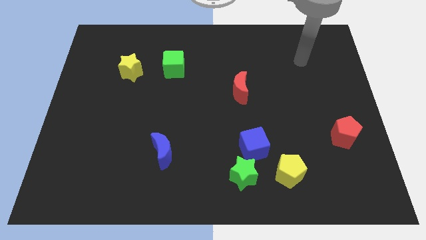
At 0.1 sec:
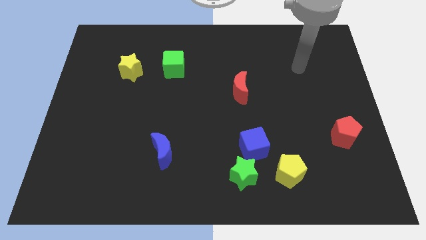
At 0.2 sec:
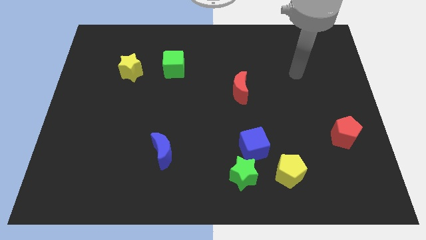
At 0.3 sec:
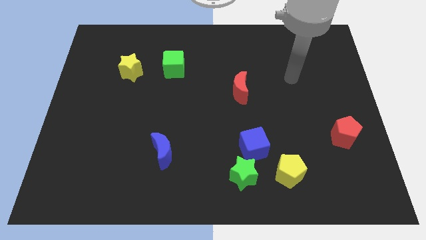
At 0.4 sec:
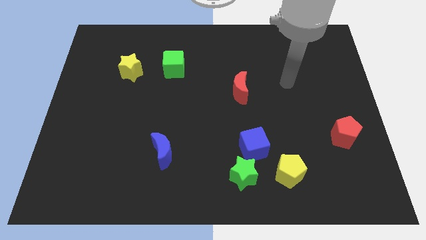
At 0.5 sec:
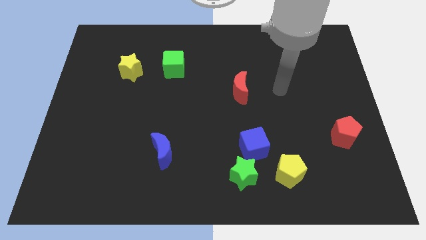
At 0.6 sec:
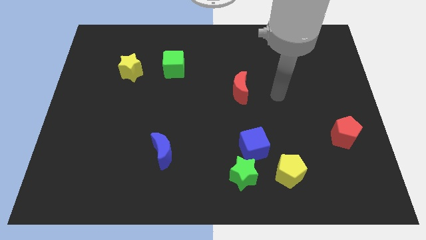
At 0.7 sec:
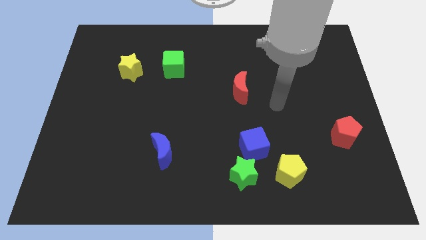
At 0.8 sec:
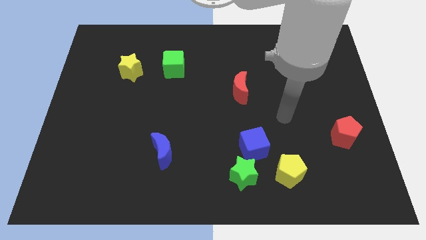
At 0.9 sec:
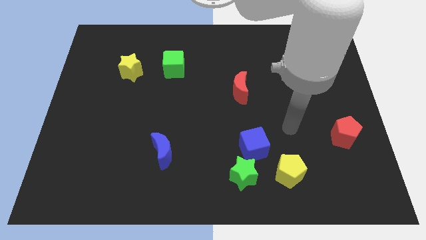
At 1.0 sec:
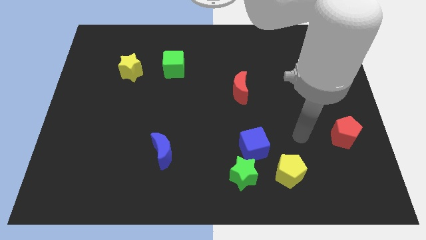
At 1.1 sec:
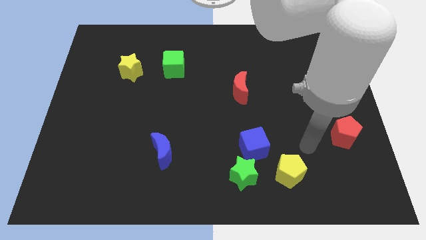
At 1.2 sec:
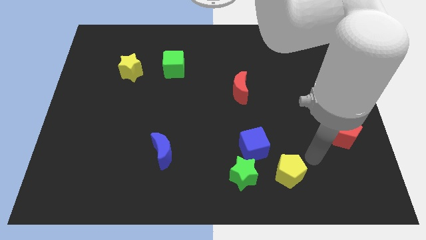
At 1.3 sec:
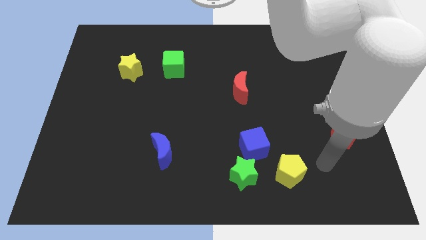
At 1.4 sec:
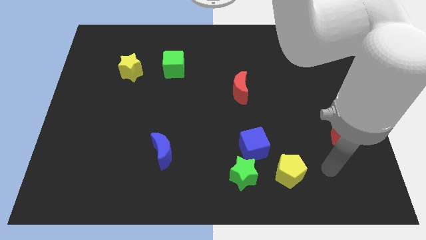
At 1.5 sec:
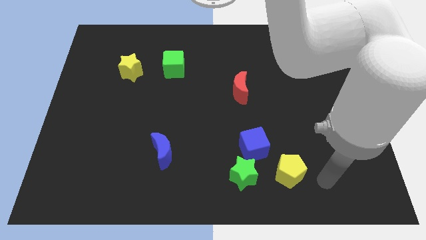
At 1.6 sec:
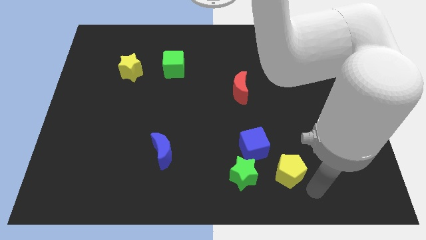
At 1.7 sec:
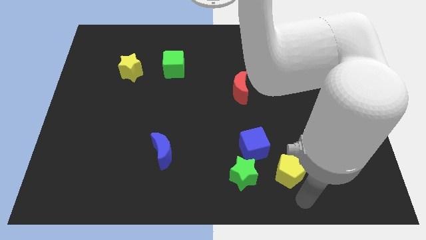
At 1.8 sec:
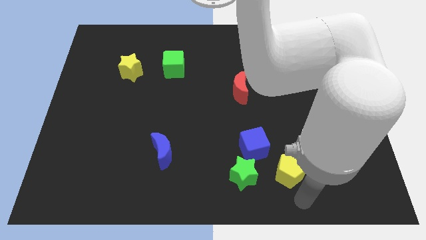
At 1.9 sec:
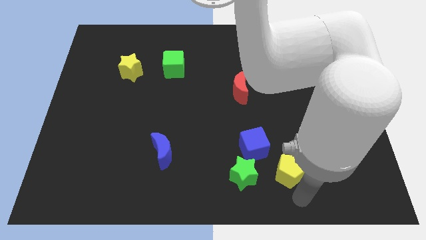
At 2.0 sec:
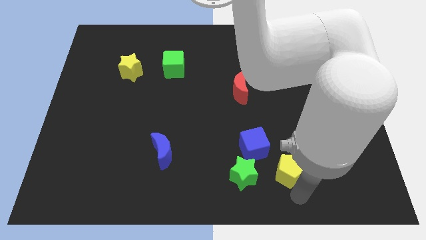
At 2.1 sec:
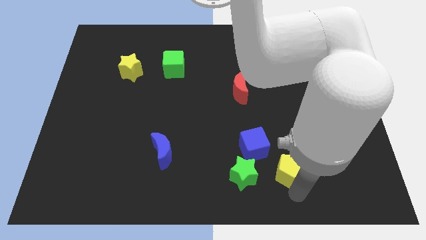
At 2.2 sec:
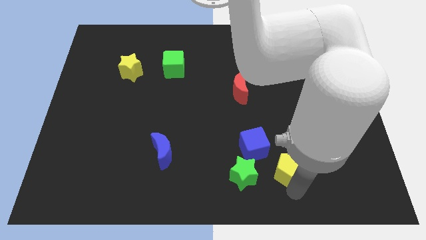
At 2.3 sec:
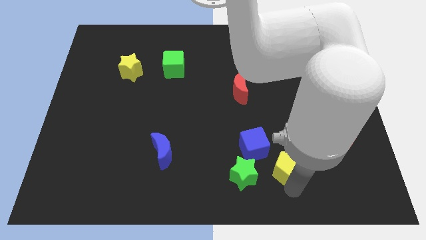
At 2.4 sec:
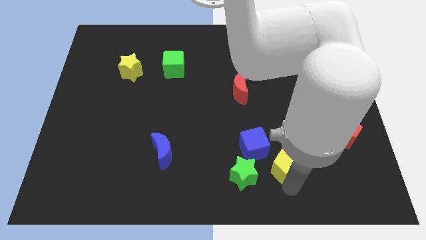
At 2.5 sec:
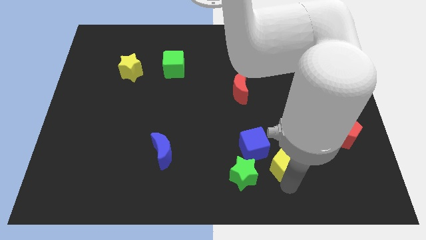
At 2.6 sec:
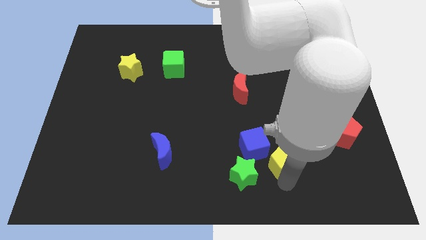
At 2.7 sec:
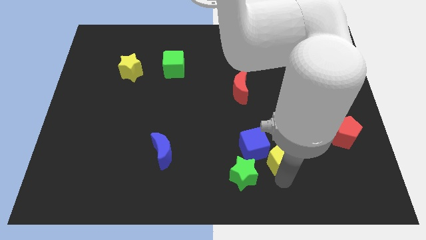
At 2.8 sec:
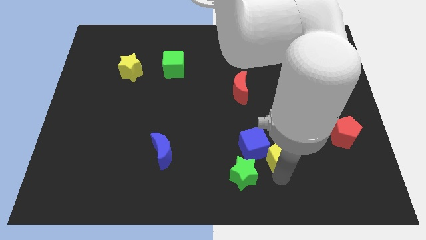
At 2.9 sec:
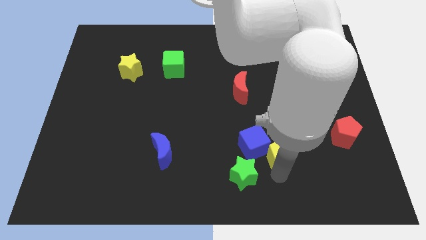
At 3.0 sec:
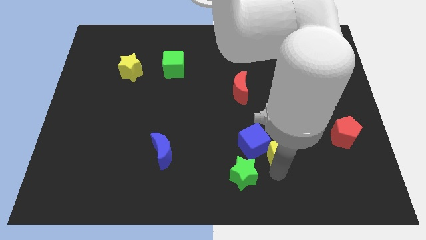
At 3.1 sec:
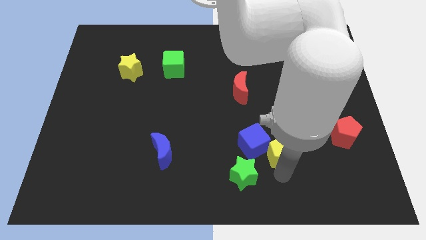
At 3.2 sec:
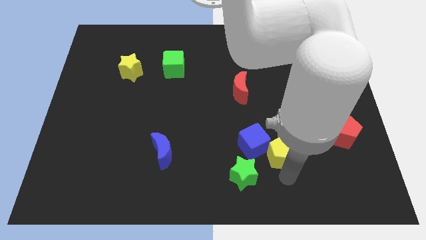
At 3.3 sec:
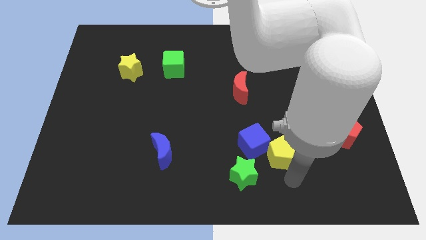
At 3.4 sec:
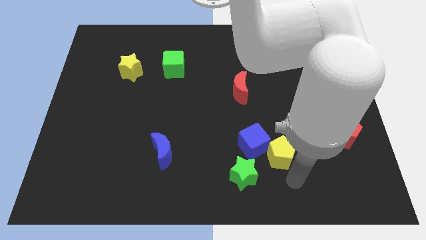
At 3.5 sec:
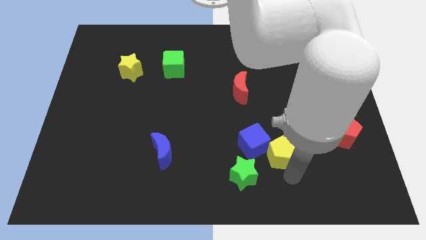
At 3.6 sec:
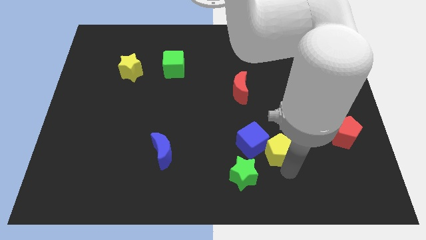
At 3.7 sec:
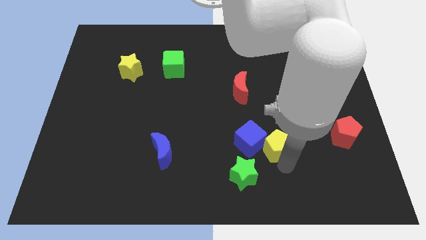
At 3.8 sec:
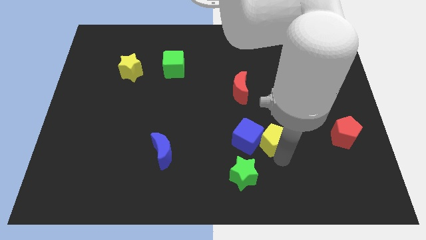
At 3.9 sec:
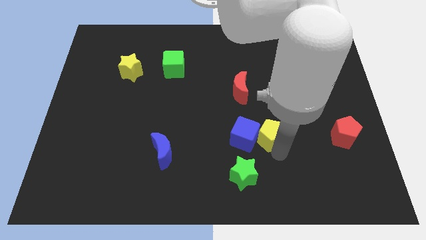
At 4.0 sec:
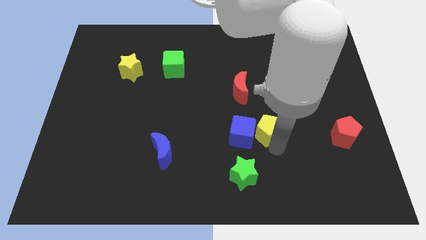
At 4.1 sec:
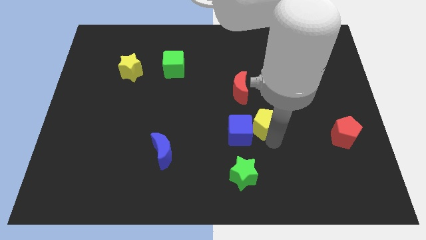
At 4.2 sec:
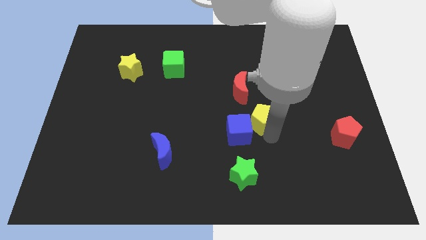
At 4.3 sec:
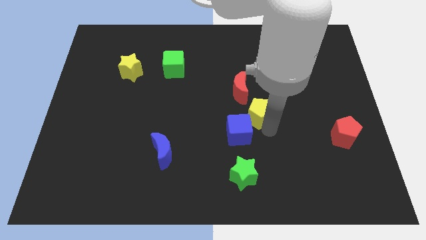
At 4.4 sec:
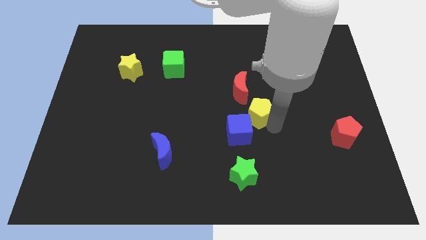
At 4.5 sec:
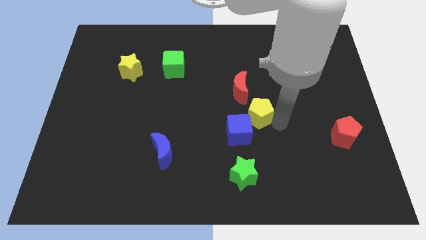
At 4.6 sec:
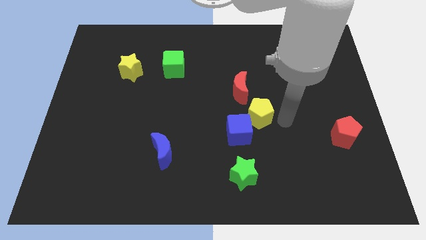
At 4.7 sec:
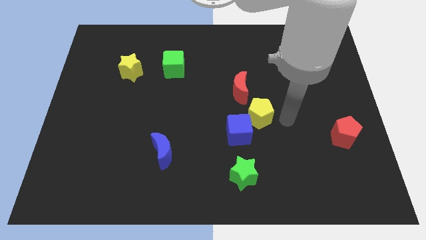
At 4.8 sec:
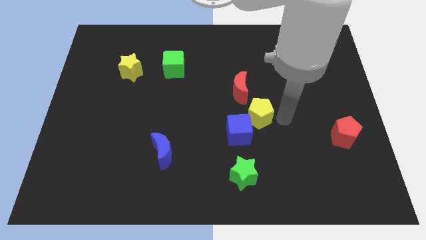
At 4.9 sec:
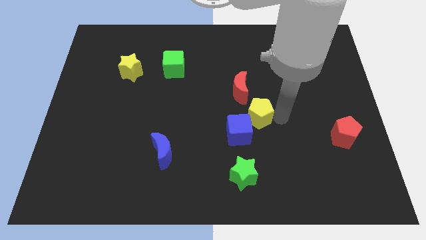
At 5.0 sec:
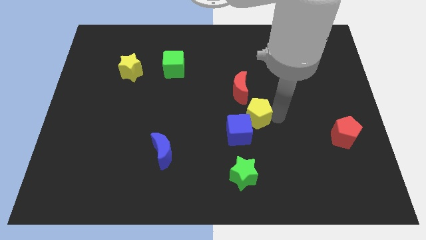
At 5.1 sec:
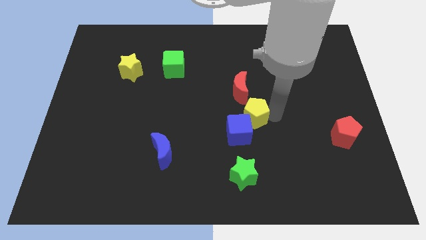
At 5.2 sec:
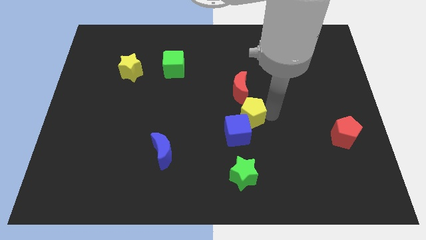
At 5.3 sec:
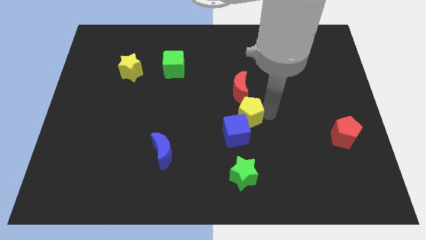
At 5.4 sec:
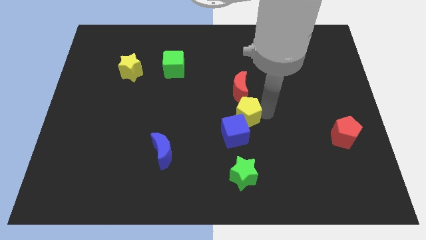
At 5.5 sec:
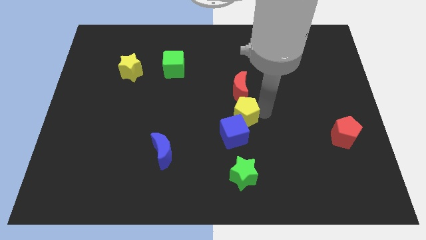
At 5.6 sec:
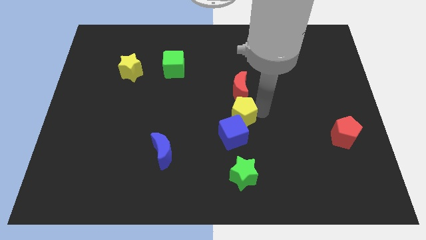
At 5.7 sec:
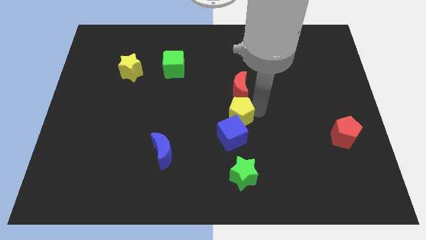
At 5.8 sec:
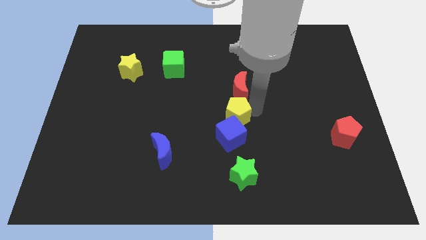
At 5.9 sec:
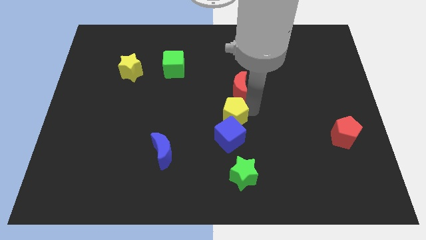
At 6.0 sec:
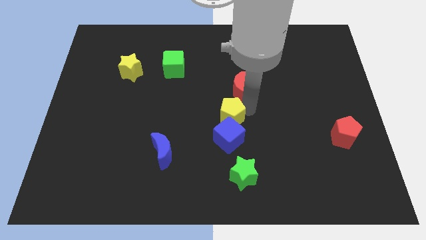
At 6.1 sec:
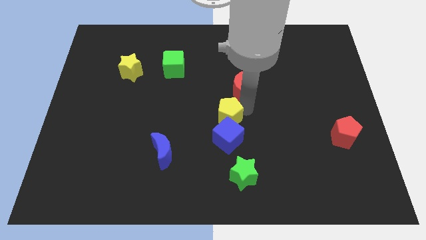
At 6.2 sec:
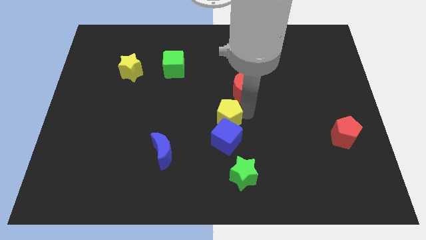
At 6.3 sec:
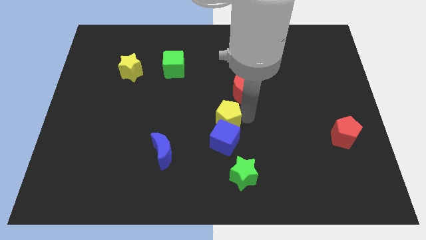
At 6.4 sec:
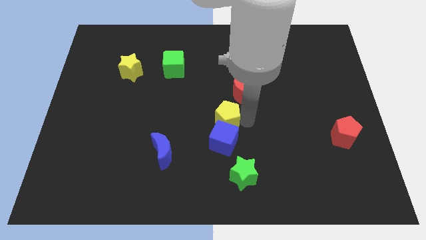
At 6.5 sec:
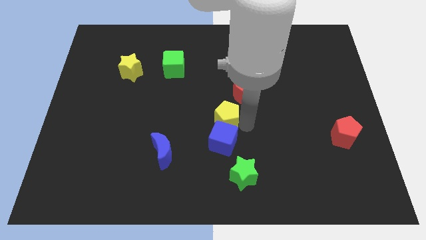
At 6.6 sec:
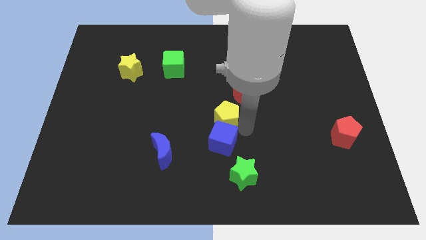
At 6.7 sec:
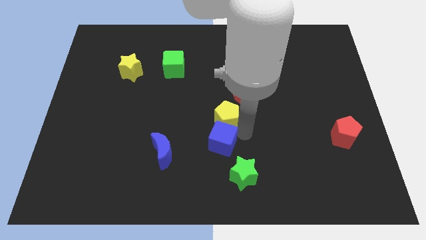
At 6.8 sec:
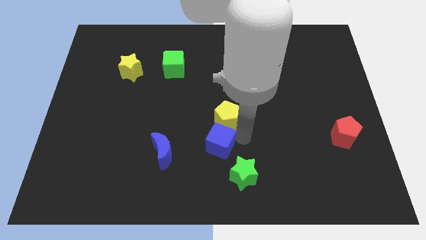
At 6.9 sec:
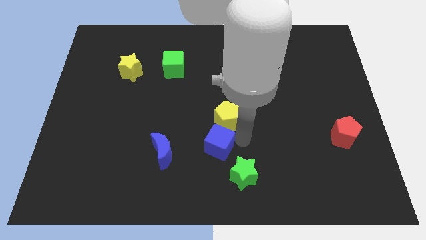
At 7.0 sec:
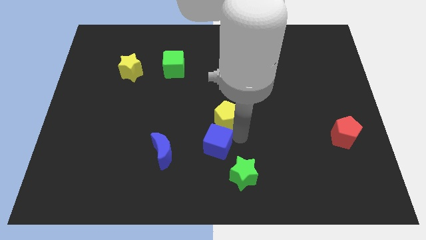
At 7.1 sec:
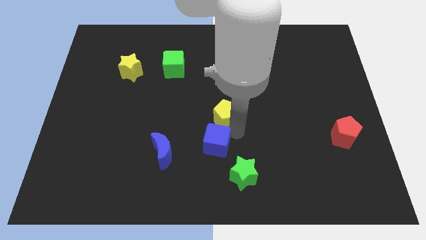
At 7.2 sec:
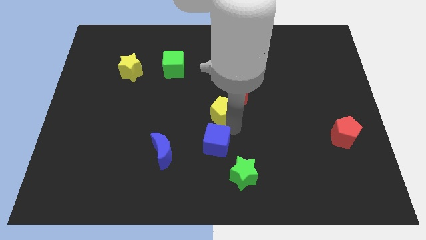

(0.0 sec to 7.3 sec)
move the yellow pentagon up and then to the left

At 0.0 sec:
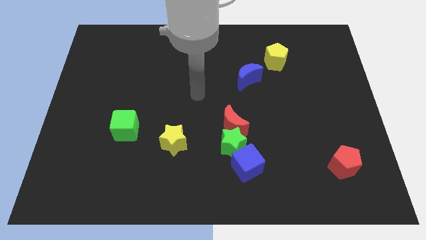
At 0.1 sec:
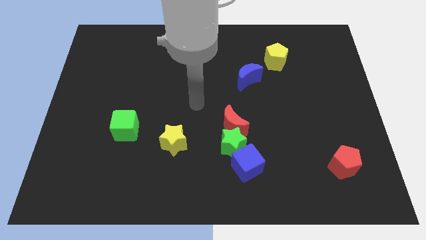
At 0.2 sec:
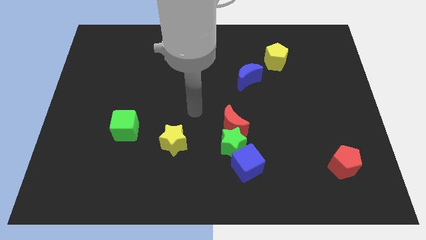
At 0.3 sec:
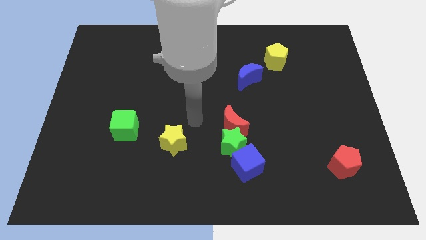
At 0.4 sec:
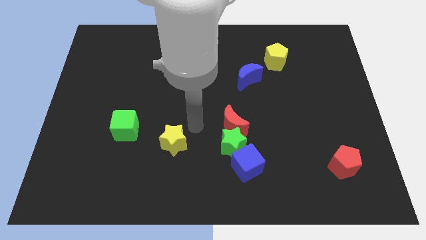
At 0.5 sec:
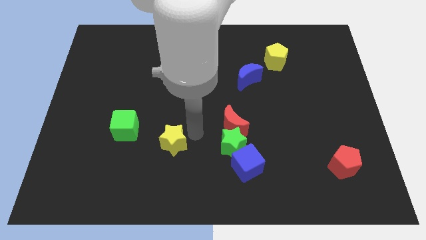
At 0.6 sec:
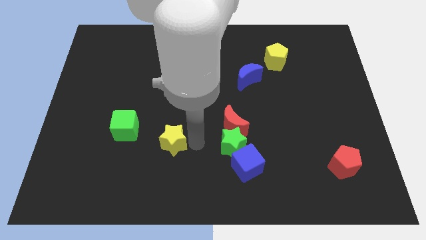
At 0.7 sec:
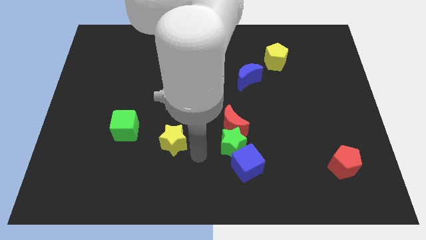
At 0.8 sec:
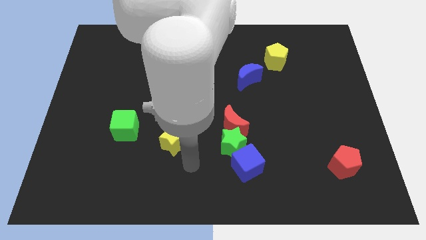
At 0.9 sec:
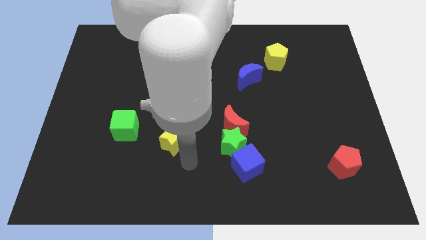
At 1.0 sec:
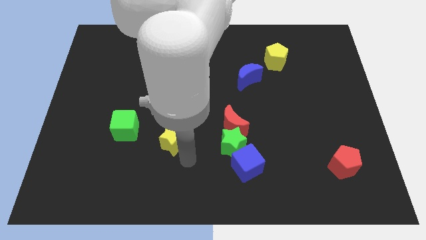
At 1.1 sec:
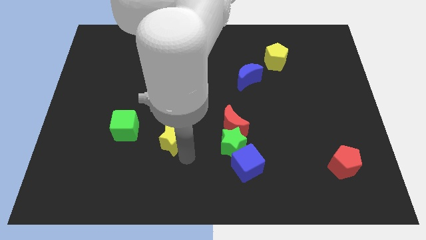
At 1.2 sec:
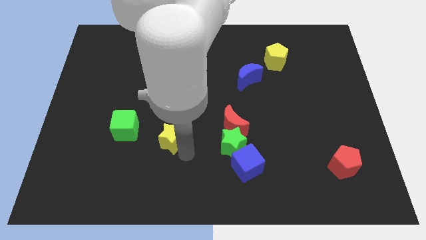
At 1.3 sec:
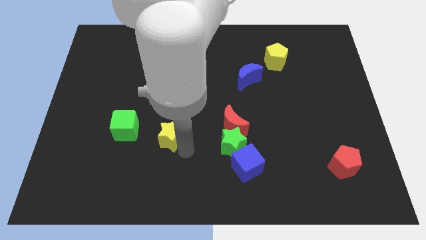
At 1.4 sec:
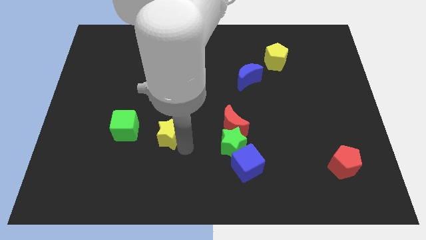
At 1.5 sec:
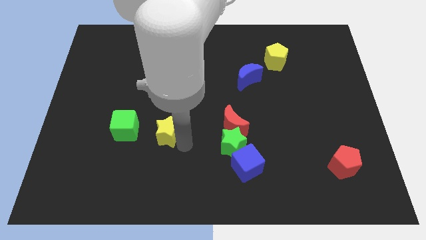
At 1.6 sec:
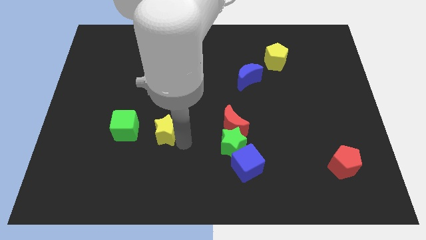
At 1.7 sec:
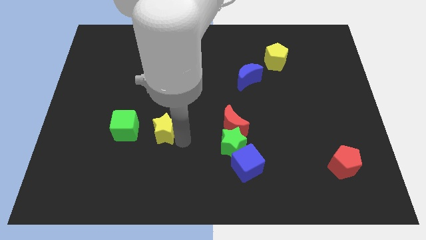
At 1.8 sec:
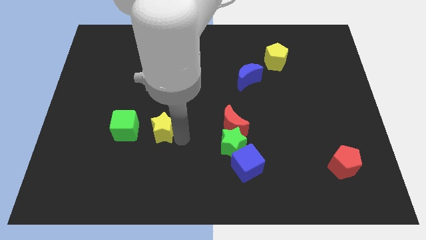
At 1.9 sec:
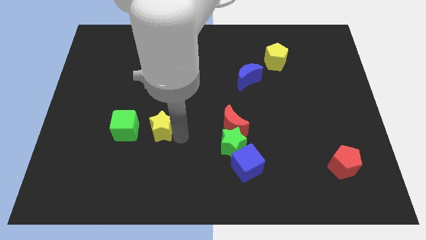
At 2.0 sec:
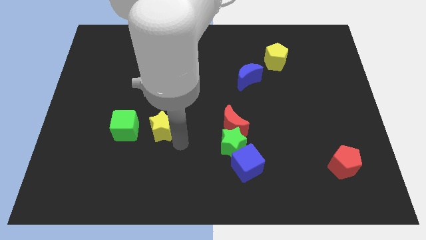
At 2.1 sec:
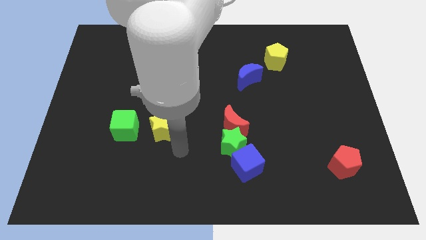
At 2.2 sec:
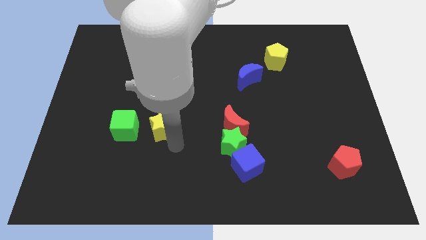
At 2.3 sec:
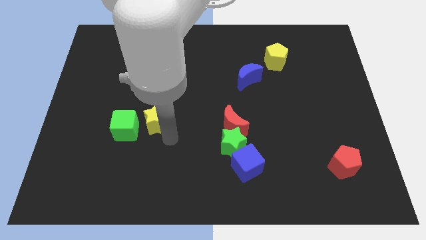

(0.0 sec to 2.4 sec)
push the yellow star a little up and left
